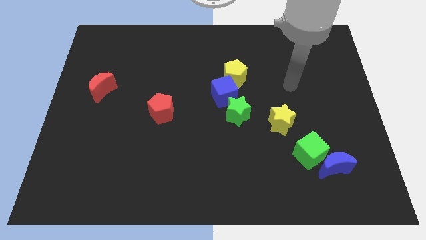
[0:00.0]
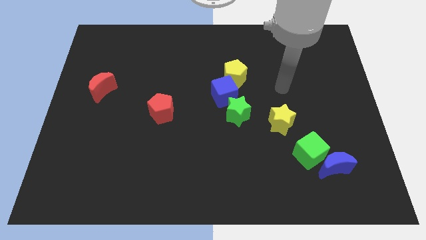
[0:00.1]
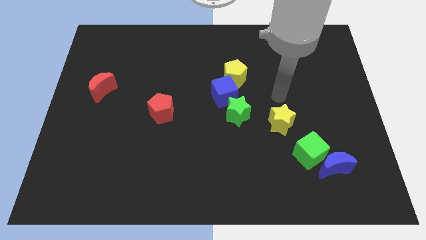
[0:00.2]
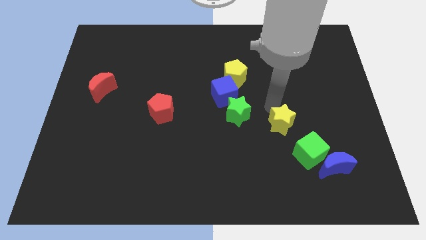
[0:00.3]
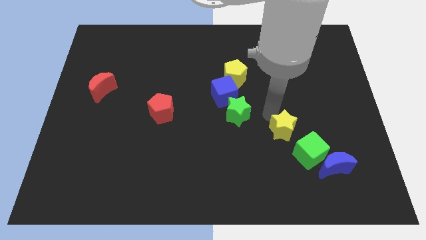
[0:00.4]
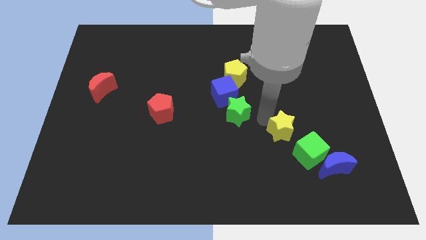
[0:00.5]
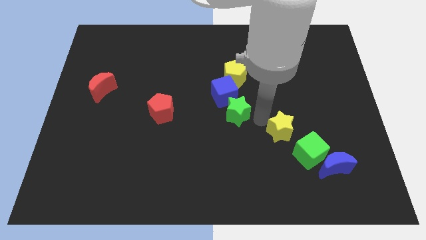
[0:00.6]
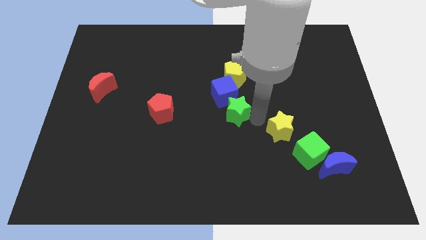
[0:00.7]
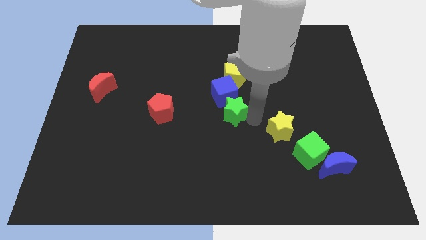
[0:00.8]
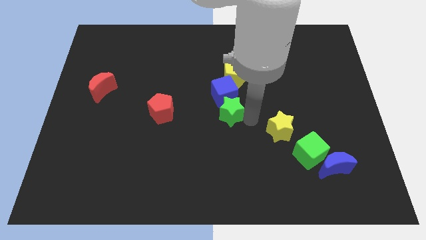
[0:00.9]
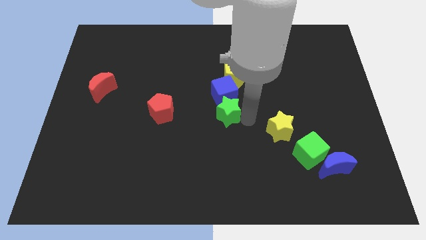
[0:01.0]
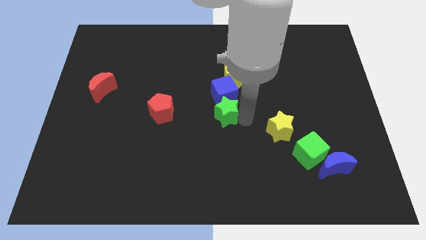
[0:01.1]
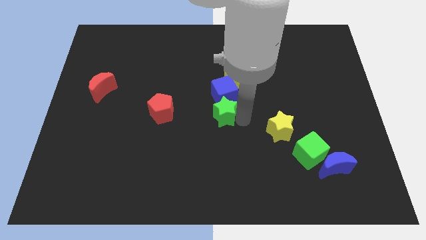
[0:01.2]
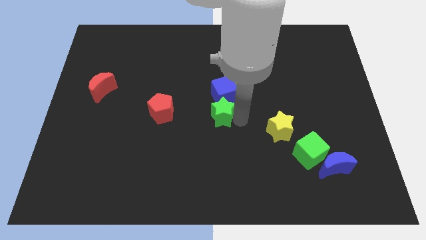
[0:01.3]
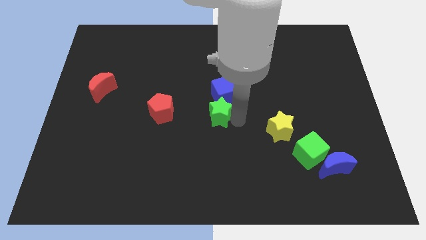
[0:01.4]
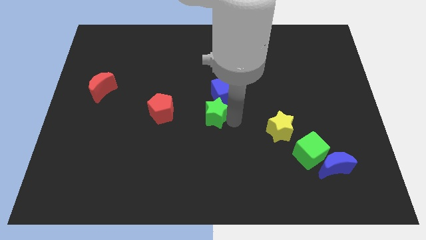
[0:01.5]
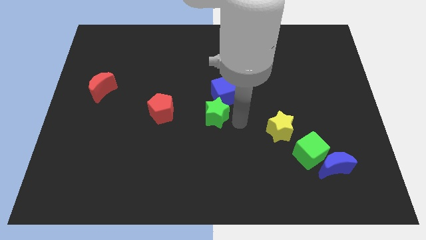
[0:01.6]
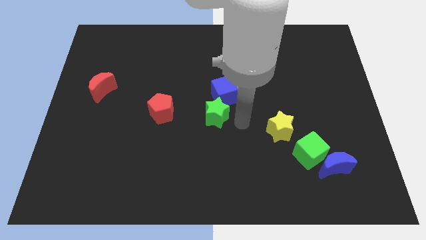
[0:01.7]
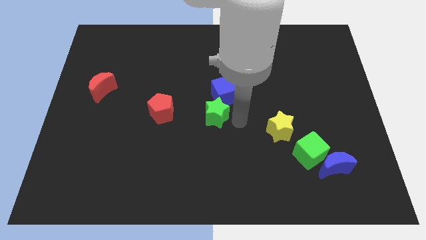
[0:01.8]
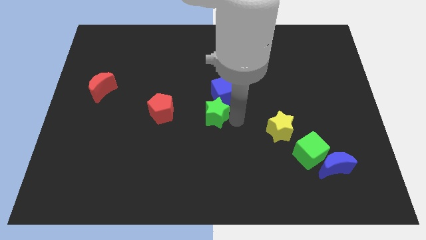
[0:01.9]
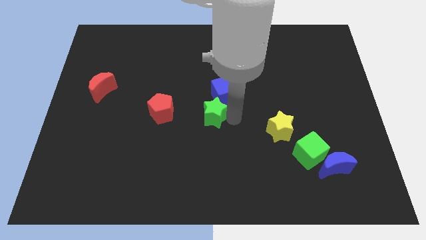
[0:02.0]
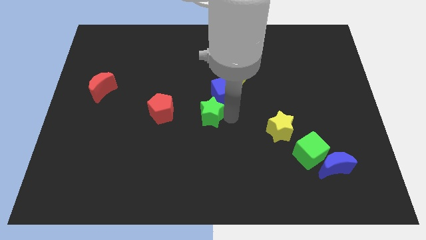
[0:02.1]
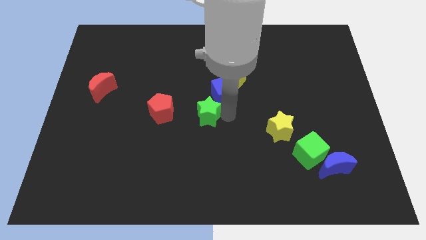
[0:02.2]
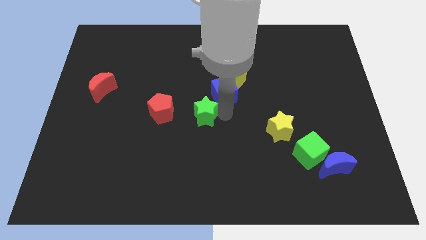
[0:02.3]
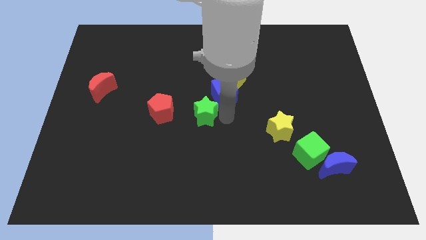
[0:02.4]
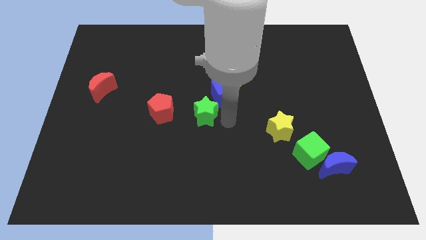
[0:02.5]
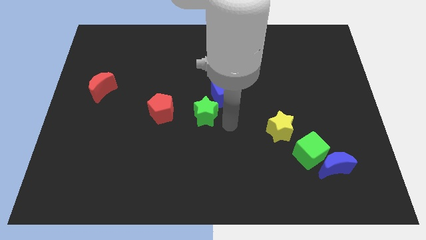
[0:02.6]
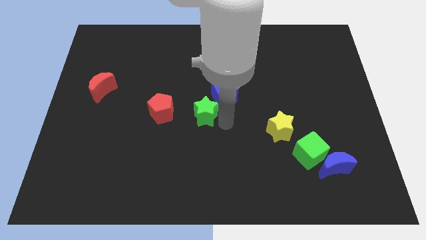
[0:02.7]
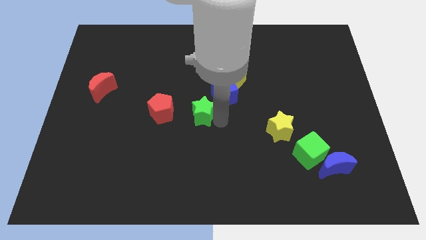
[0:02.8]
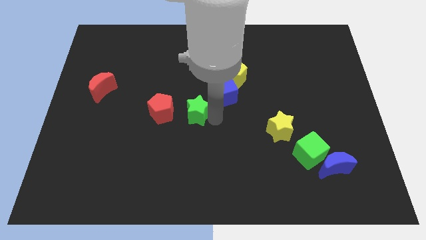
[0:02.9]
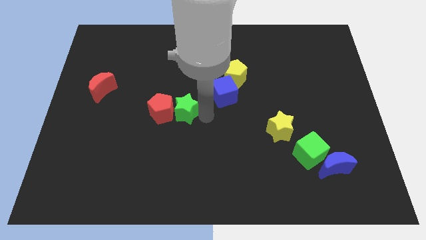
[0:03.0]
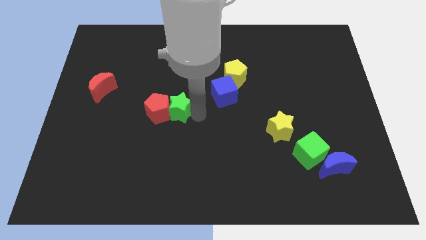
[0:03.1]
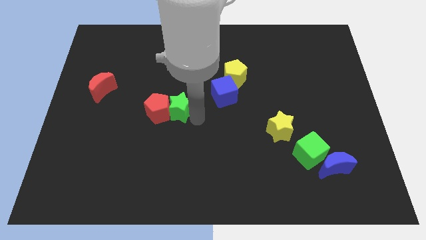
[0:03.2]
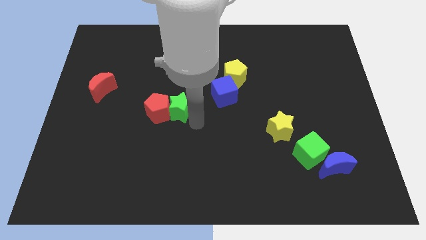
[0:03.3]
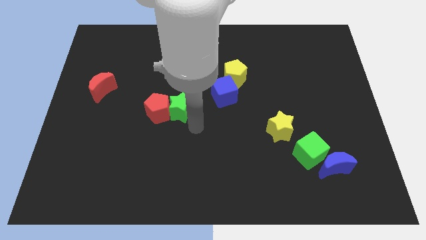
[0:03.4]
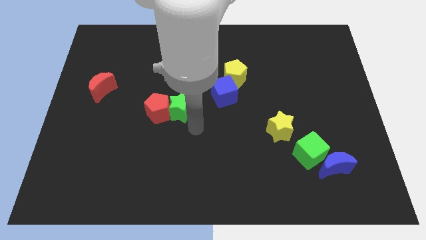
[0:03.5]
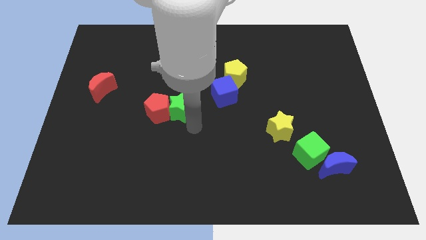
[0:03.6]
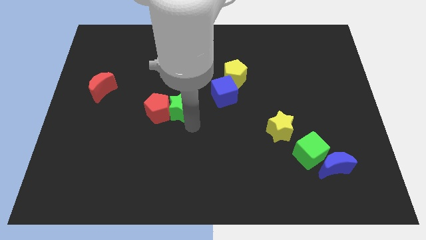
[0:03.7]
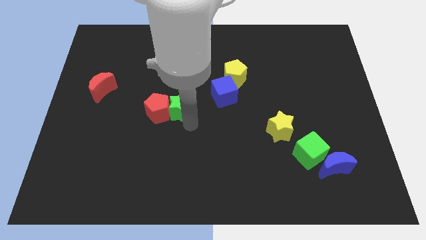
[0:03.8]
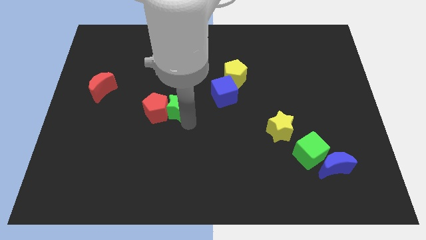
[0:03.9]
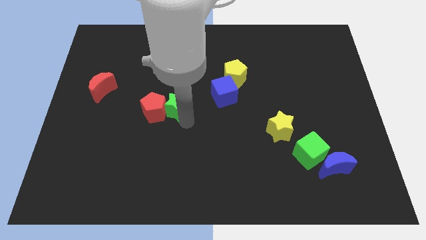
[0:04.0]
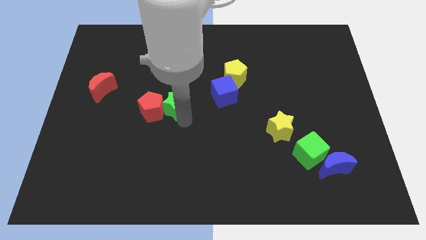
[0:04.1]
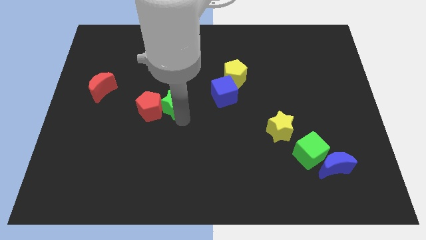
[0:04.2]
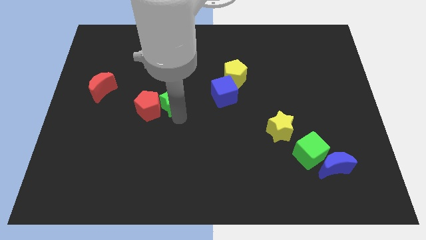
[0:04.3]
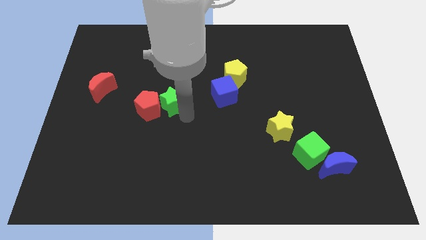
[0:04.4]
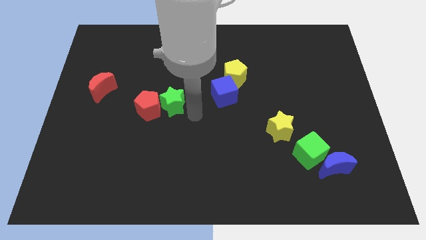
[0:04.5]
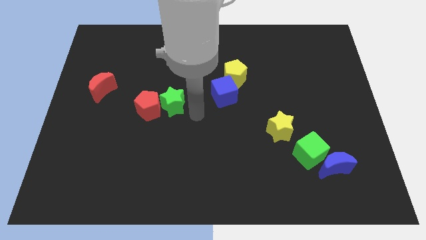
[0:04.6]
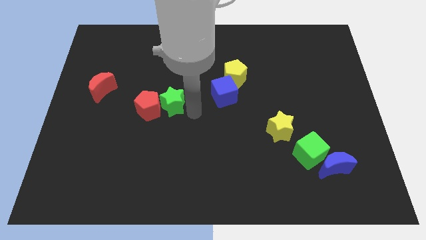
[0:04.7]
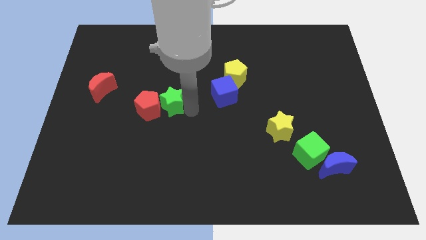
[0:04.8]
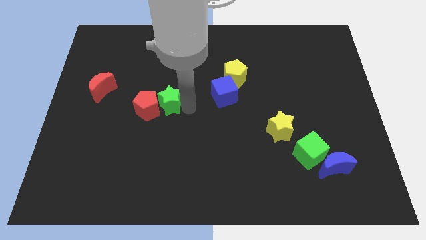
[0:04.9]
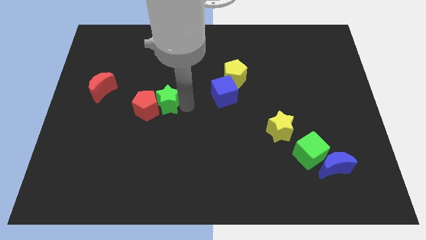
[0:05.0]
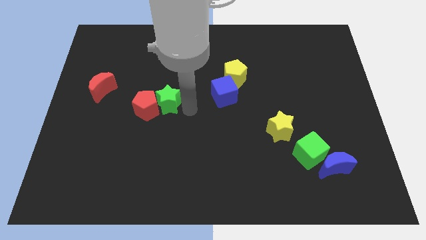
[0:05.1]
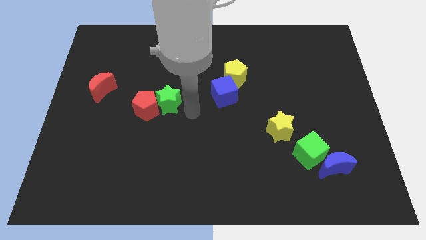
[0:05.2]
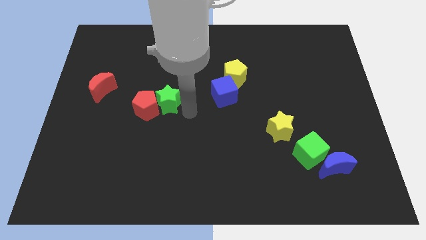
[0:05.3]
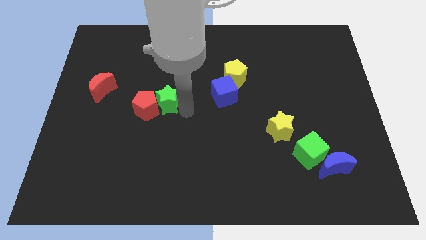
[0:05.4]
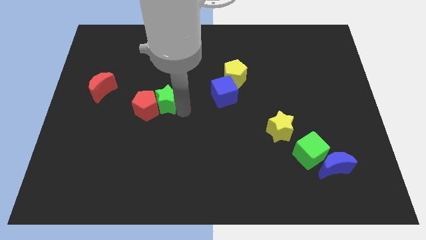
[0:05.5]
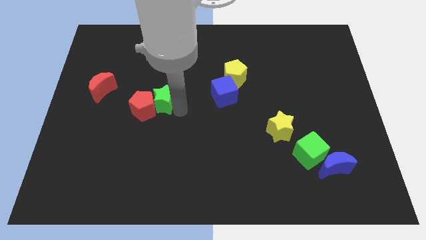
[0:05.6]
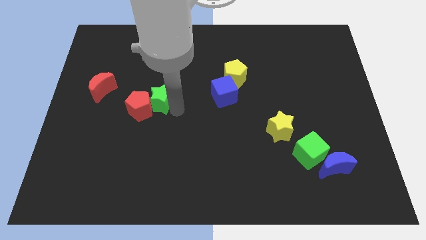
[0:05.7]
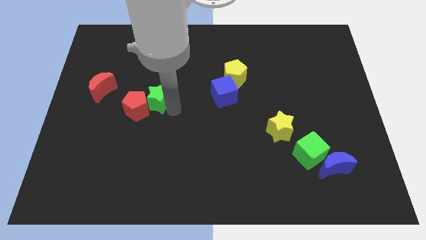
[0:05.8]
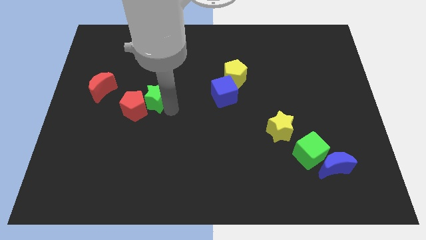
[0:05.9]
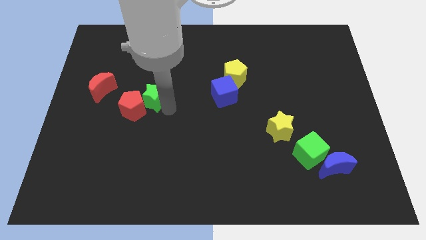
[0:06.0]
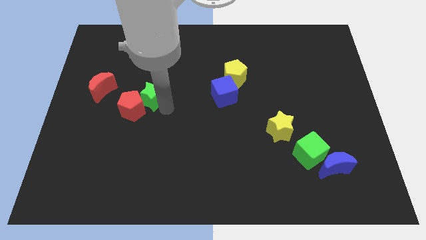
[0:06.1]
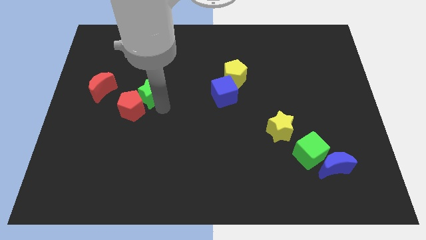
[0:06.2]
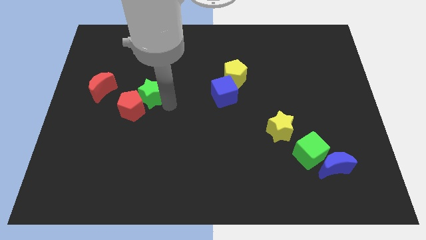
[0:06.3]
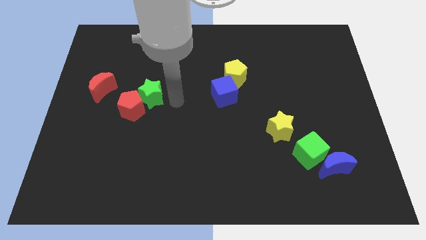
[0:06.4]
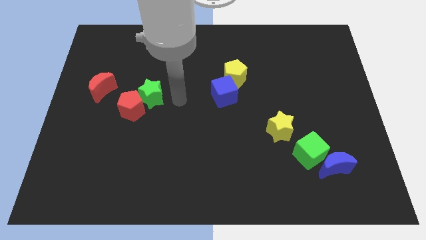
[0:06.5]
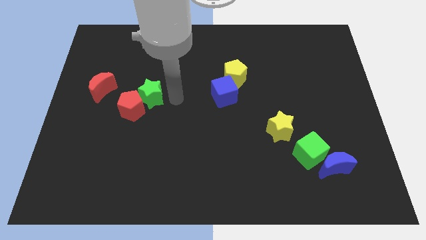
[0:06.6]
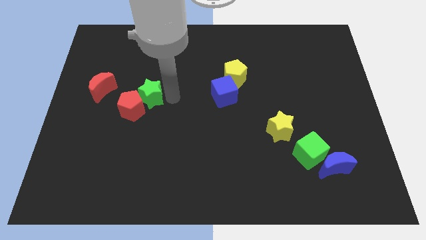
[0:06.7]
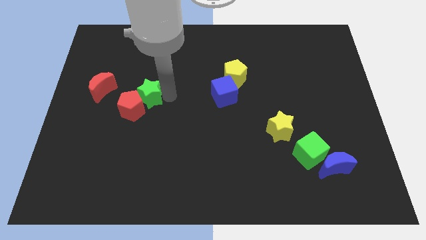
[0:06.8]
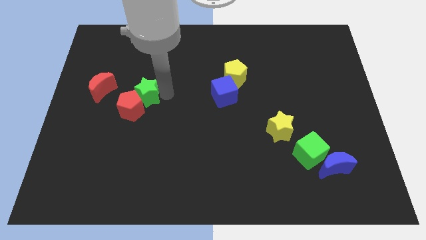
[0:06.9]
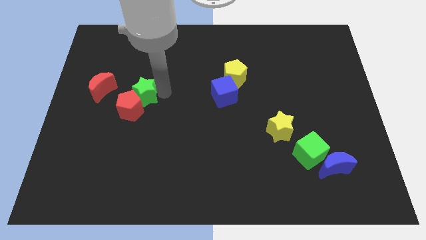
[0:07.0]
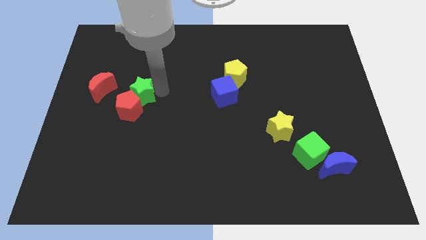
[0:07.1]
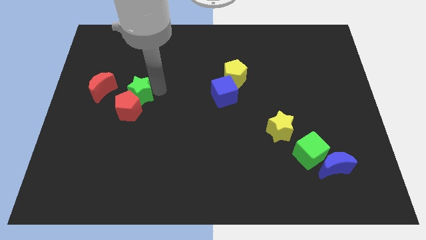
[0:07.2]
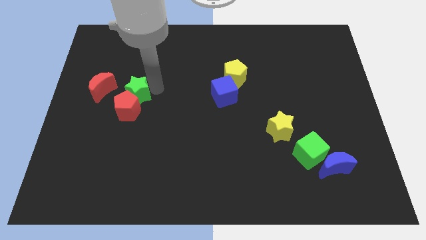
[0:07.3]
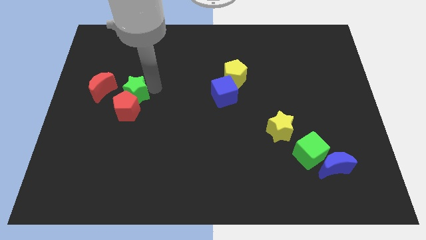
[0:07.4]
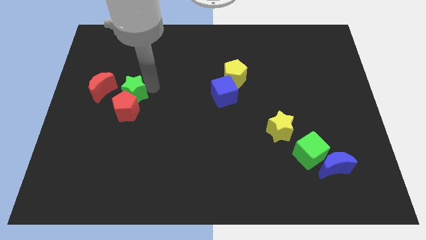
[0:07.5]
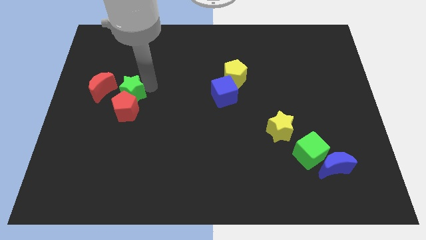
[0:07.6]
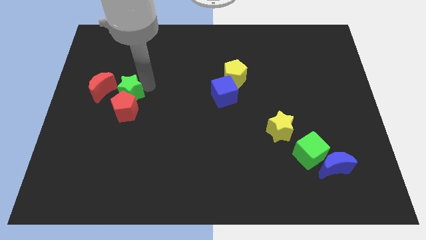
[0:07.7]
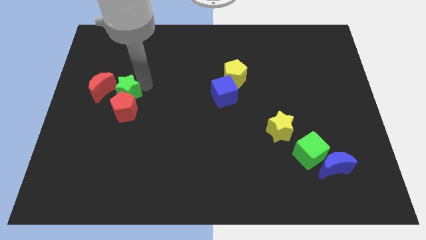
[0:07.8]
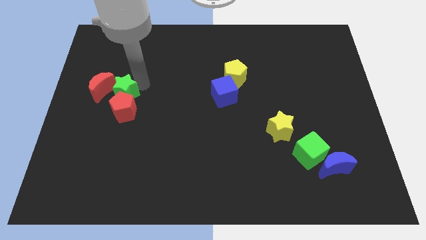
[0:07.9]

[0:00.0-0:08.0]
slide the green star next to the red moon

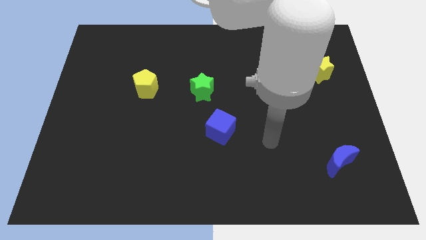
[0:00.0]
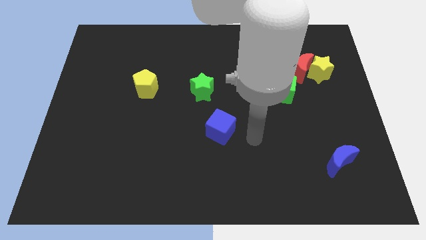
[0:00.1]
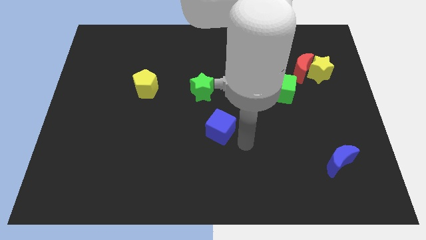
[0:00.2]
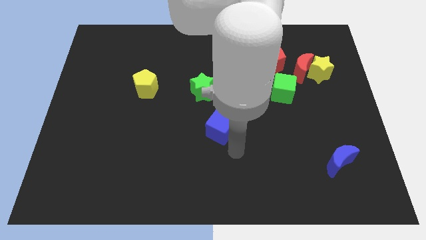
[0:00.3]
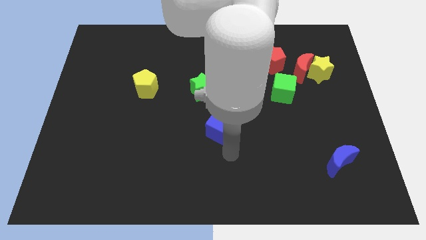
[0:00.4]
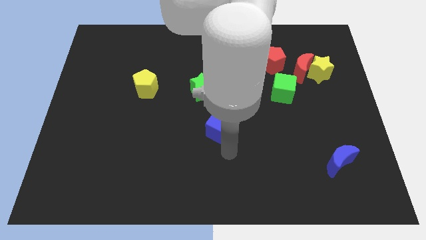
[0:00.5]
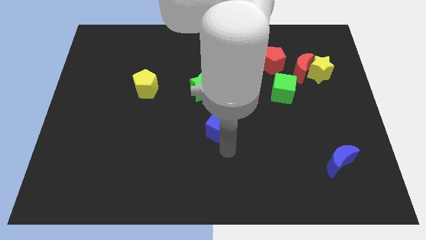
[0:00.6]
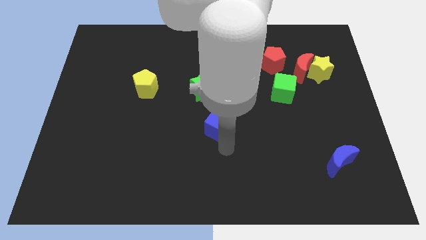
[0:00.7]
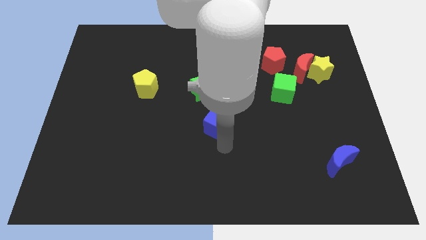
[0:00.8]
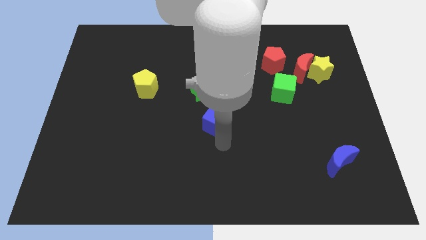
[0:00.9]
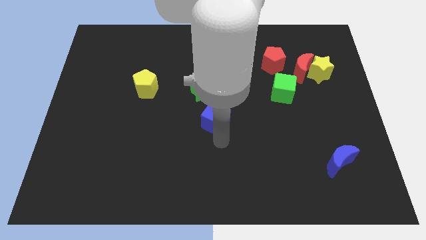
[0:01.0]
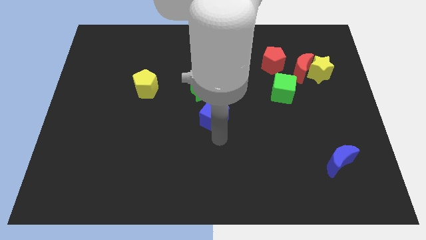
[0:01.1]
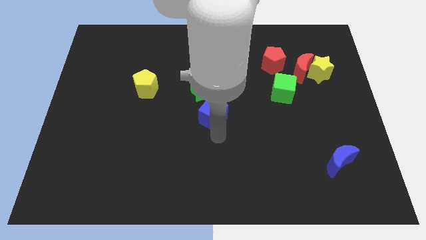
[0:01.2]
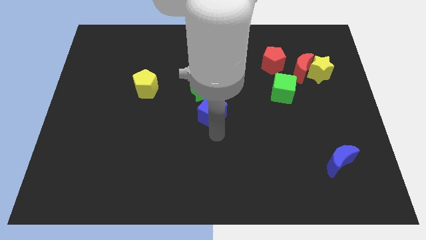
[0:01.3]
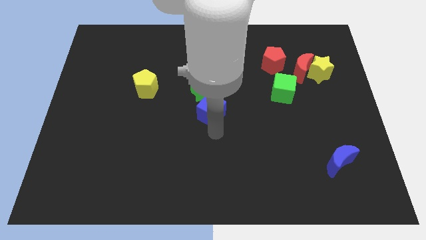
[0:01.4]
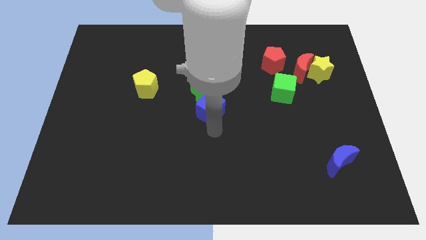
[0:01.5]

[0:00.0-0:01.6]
push the blue cube to the green star
